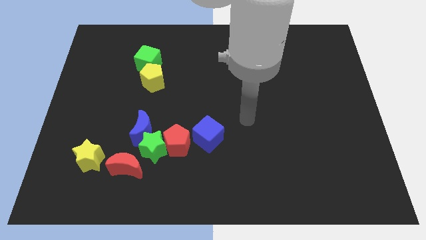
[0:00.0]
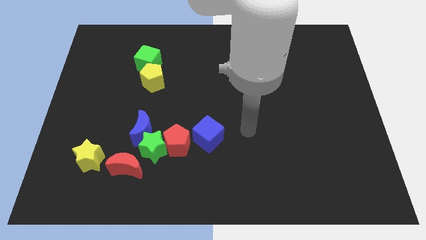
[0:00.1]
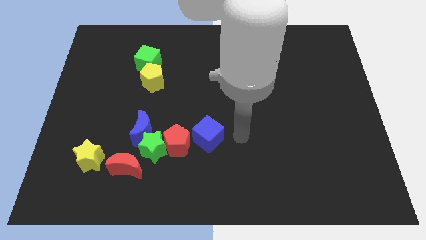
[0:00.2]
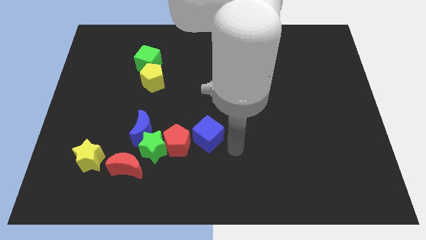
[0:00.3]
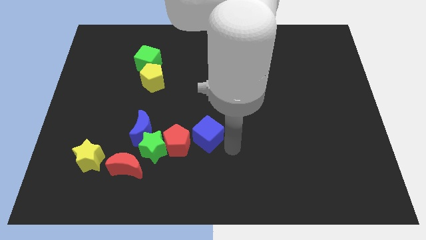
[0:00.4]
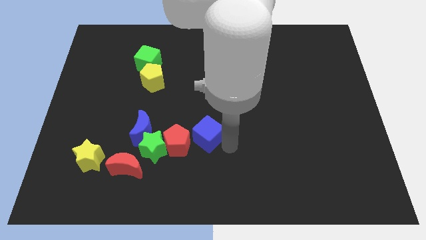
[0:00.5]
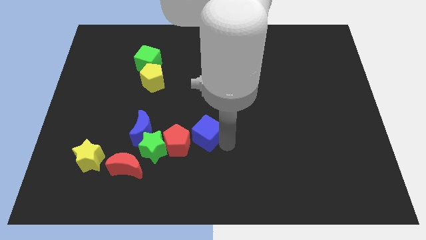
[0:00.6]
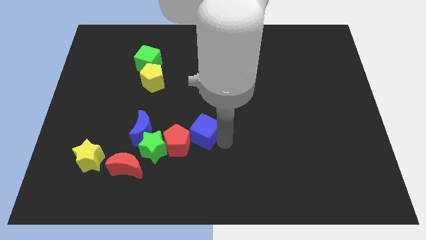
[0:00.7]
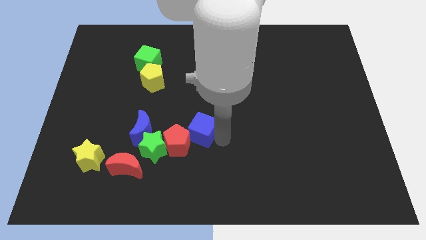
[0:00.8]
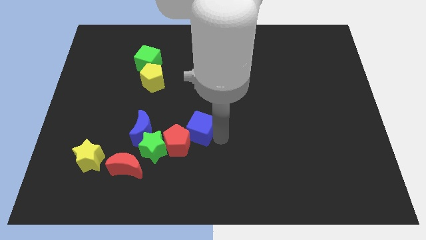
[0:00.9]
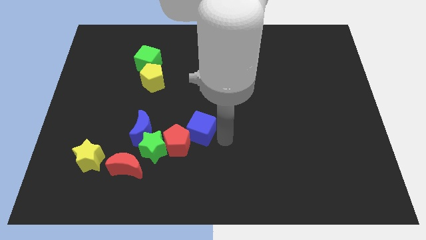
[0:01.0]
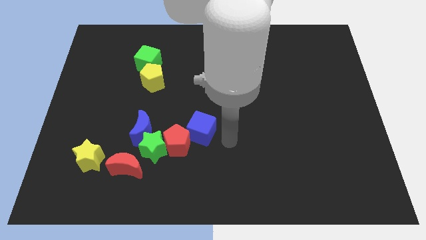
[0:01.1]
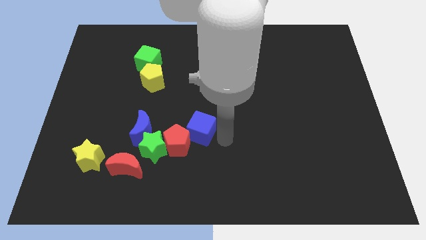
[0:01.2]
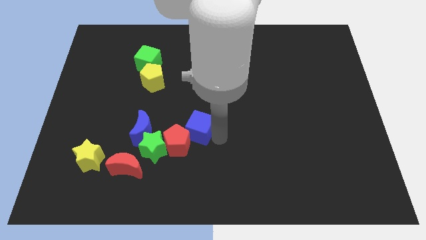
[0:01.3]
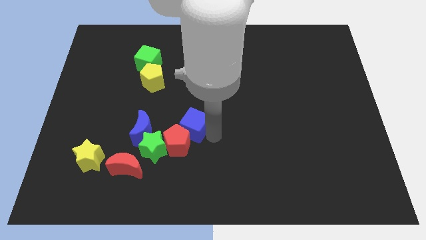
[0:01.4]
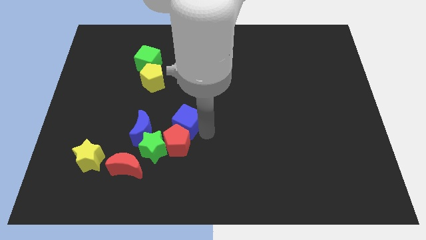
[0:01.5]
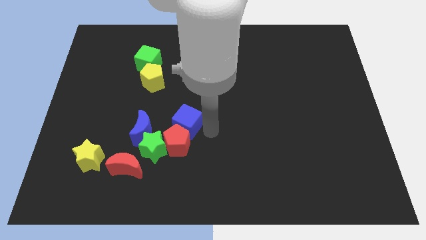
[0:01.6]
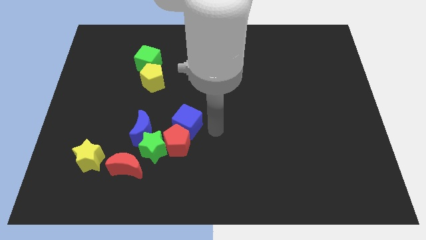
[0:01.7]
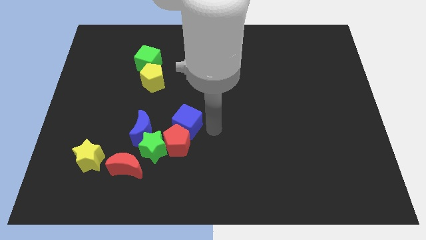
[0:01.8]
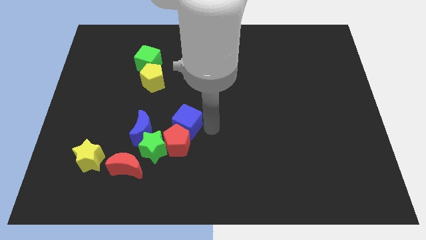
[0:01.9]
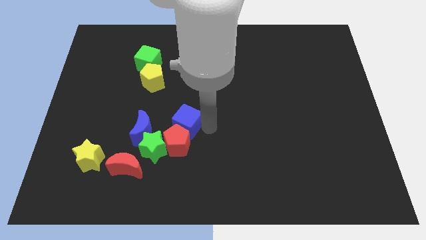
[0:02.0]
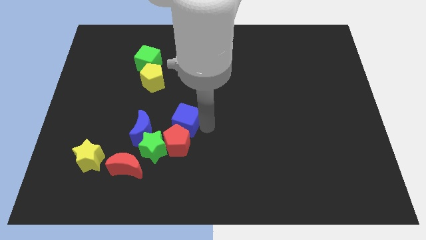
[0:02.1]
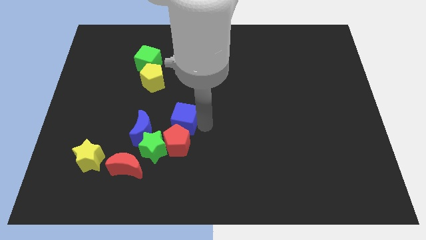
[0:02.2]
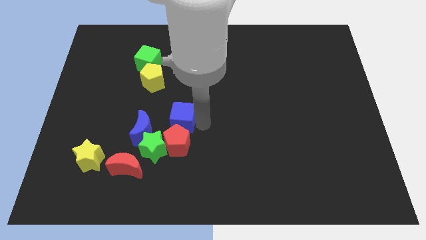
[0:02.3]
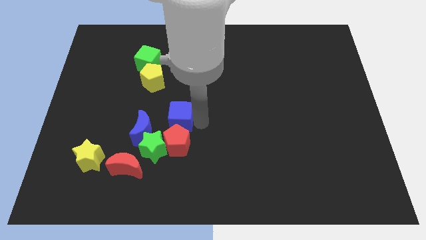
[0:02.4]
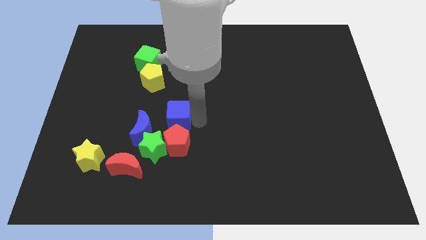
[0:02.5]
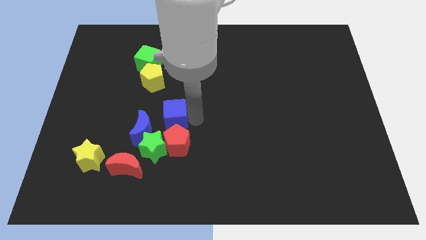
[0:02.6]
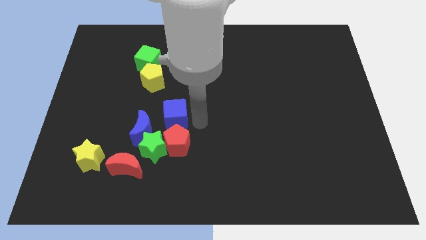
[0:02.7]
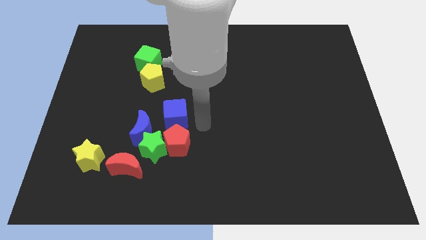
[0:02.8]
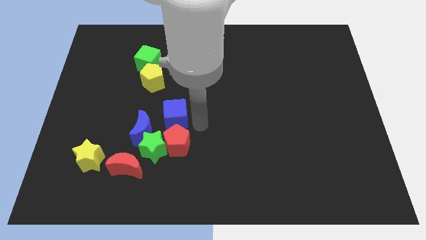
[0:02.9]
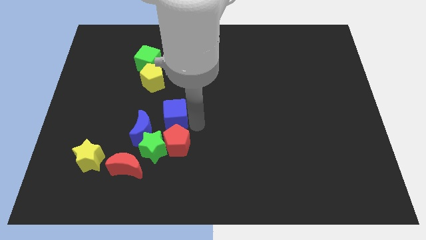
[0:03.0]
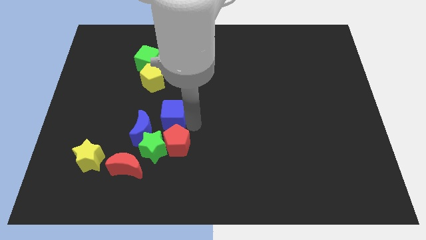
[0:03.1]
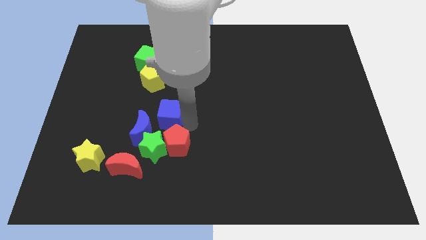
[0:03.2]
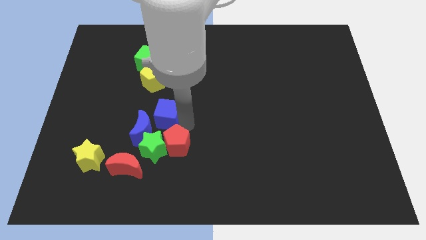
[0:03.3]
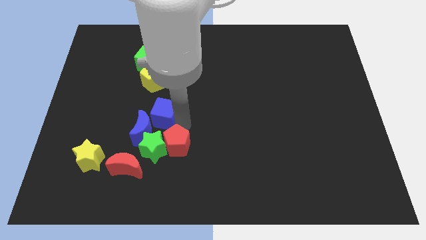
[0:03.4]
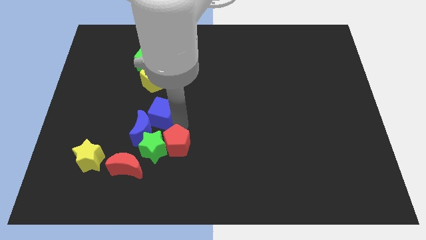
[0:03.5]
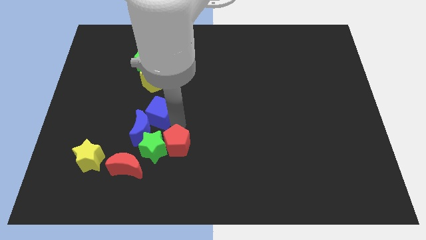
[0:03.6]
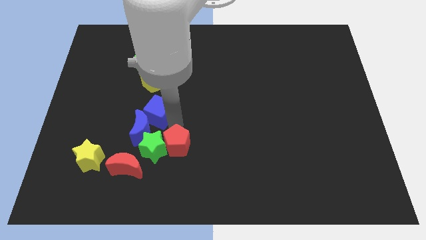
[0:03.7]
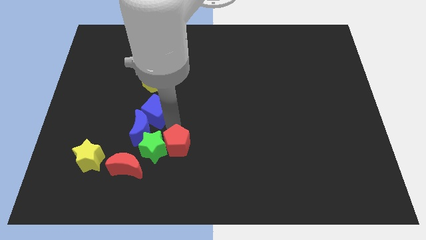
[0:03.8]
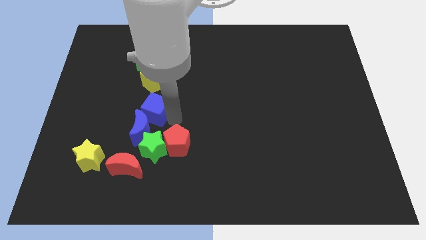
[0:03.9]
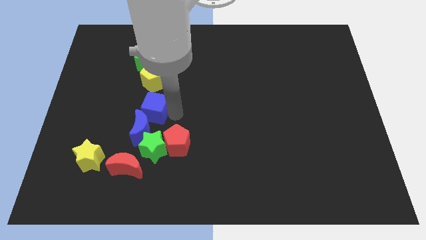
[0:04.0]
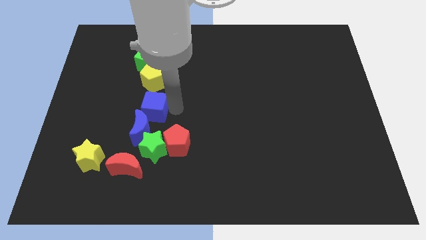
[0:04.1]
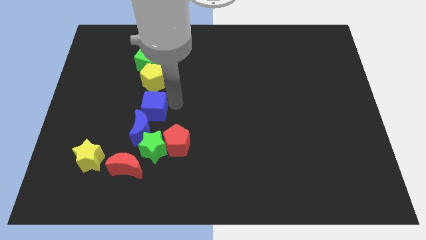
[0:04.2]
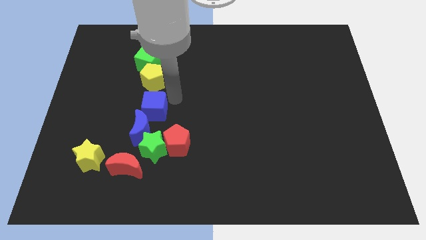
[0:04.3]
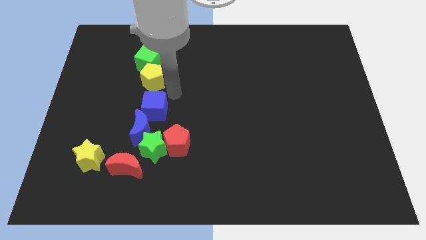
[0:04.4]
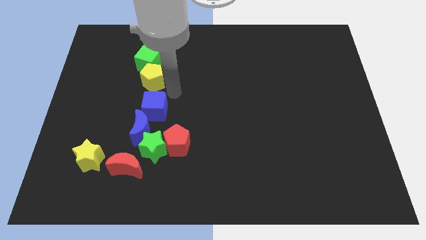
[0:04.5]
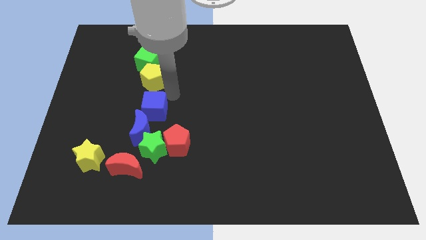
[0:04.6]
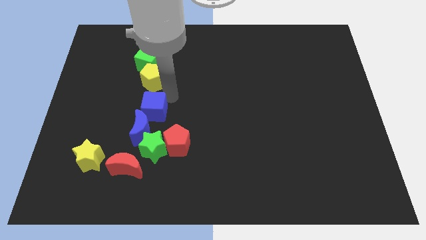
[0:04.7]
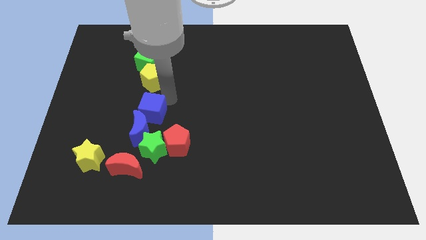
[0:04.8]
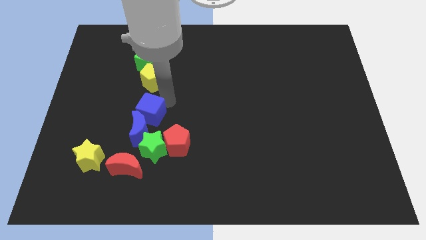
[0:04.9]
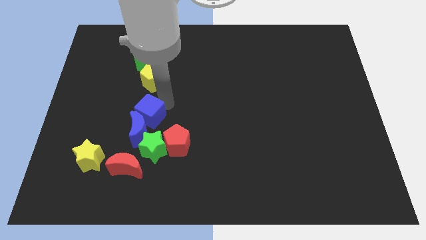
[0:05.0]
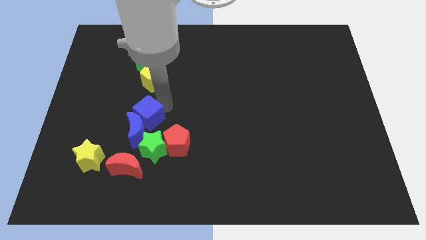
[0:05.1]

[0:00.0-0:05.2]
move the blue cube to the top left of the green star

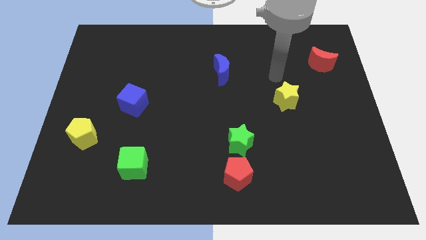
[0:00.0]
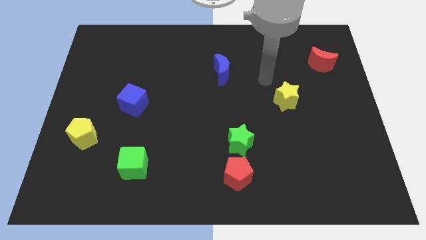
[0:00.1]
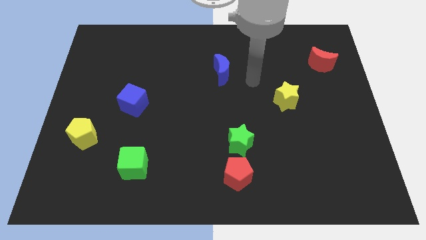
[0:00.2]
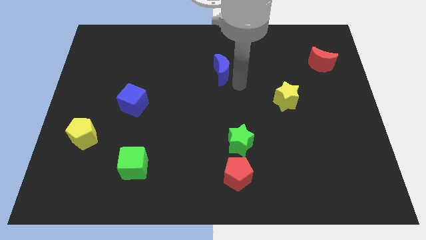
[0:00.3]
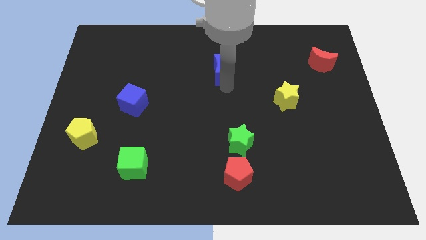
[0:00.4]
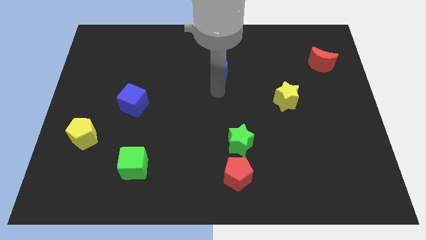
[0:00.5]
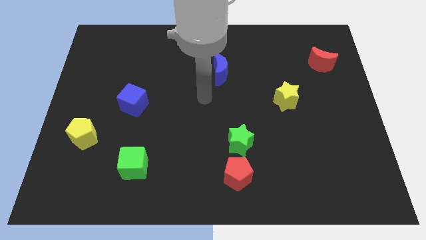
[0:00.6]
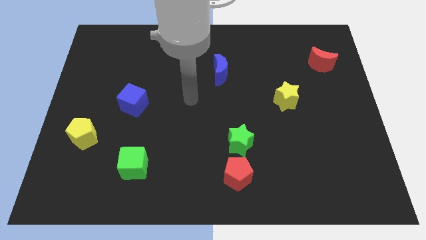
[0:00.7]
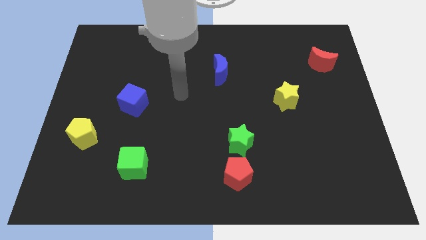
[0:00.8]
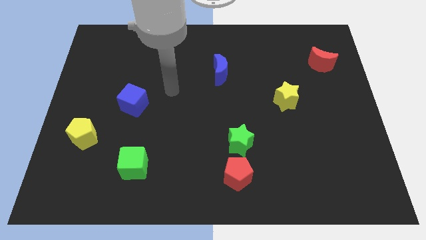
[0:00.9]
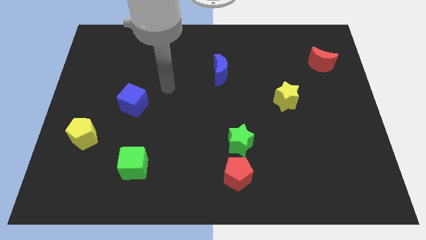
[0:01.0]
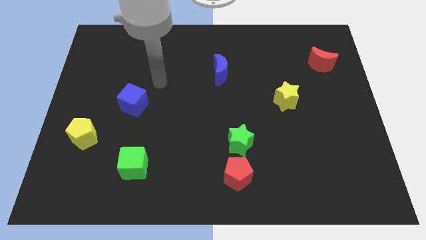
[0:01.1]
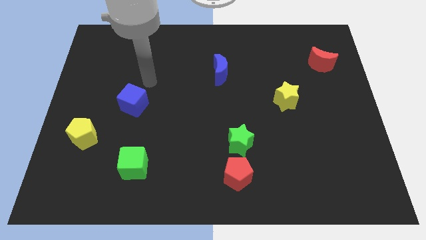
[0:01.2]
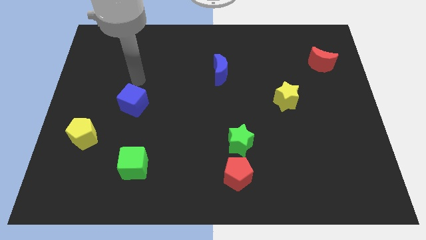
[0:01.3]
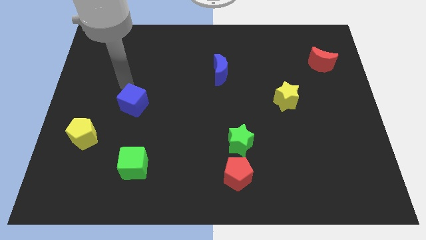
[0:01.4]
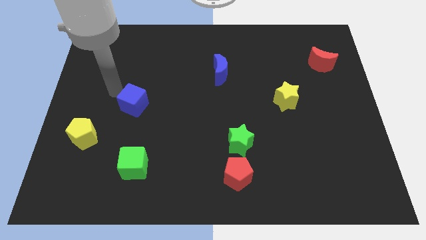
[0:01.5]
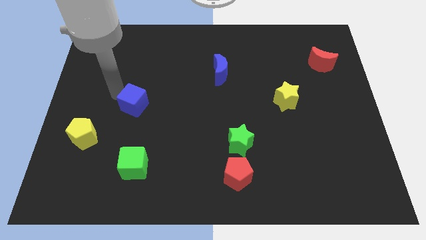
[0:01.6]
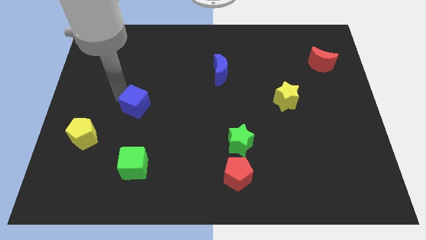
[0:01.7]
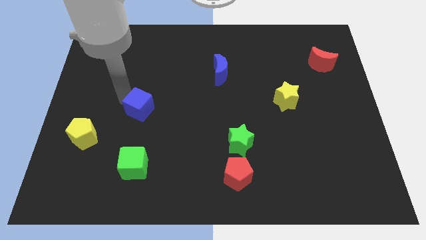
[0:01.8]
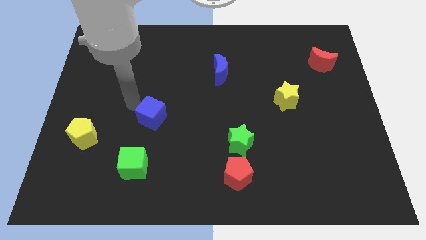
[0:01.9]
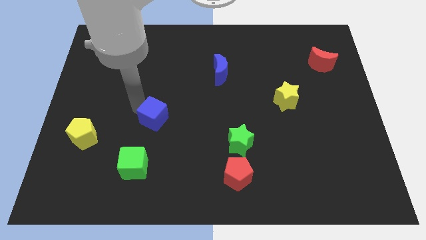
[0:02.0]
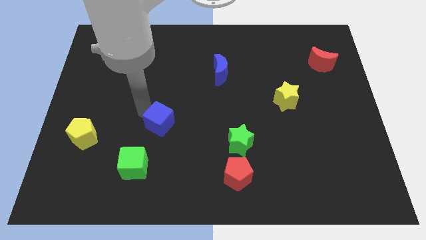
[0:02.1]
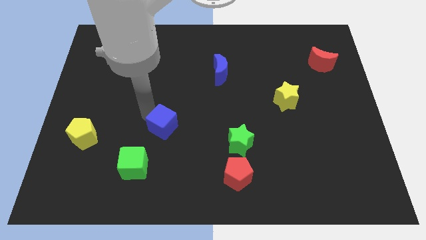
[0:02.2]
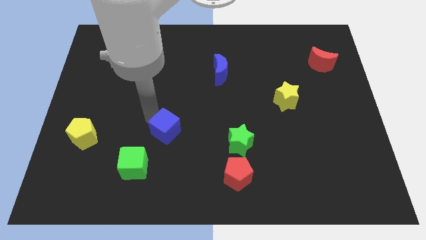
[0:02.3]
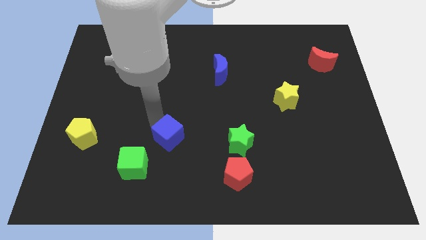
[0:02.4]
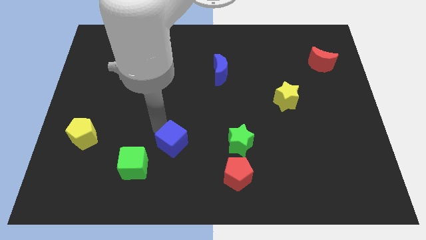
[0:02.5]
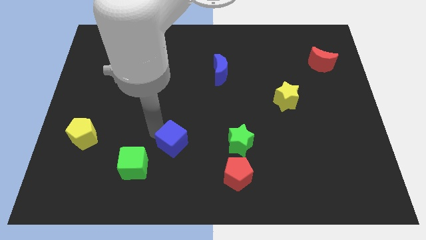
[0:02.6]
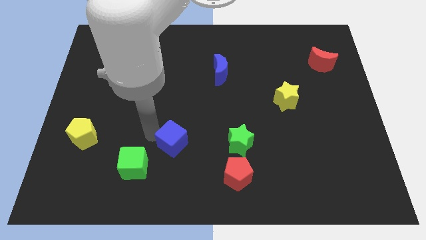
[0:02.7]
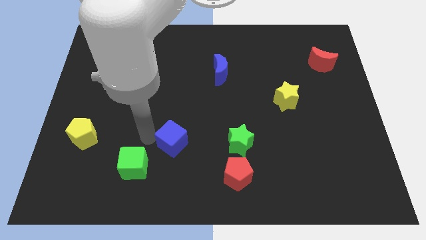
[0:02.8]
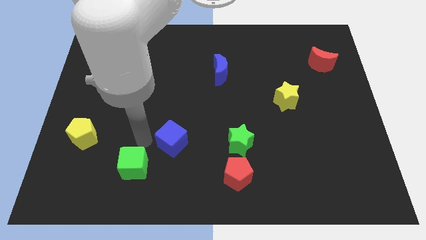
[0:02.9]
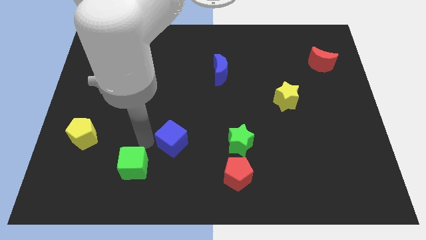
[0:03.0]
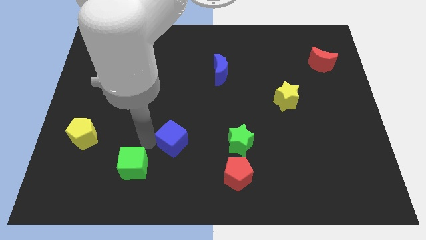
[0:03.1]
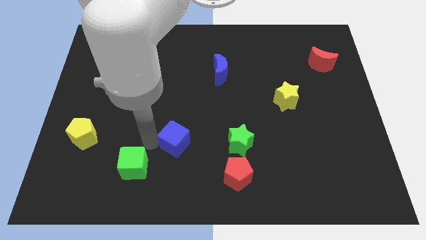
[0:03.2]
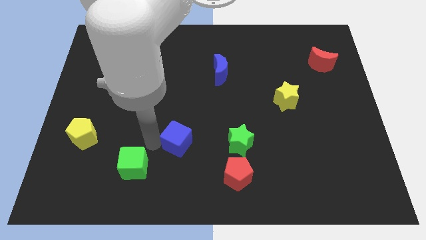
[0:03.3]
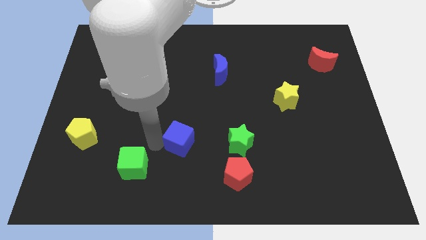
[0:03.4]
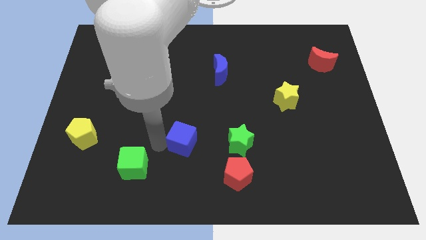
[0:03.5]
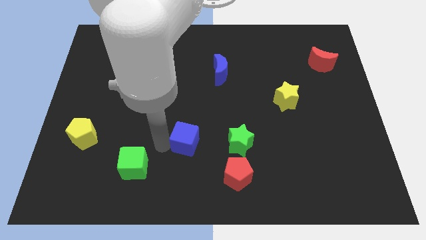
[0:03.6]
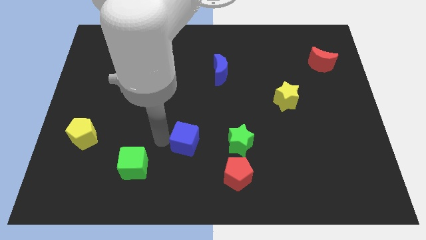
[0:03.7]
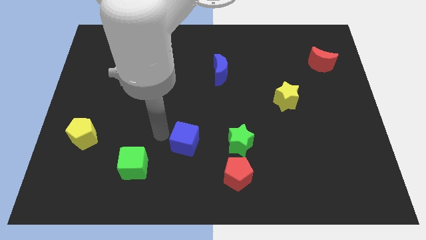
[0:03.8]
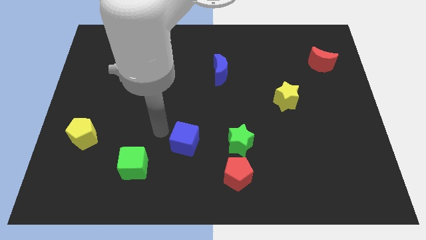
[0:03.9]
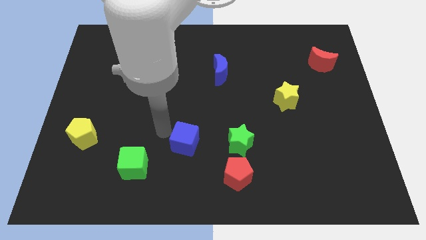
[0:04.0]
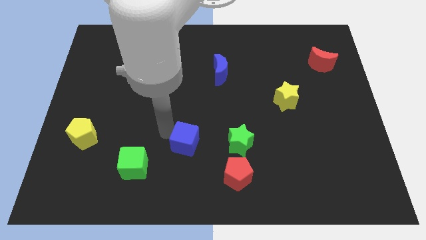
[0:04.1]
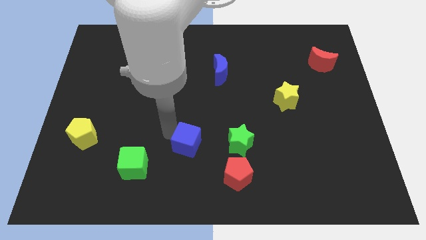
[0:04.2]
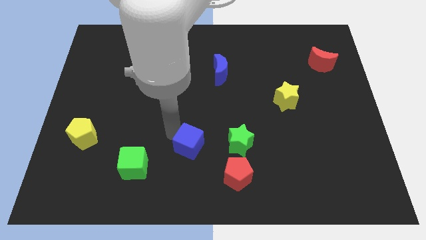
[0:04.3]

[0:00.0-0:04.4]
put the blue cube to the top left of the red pentagon
